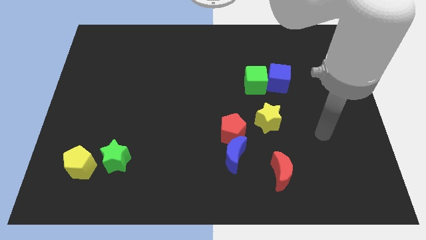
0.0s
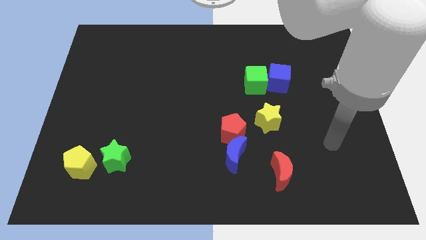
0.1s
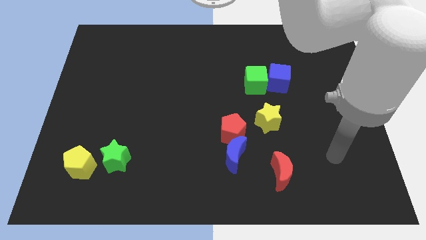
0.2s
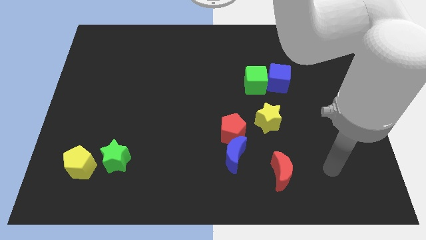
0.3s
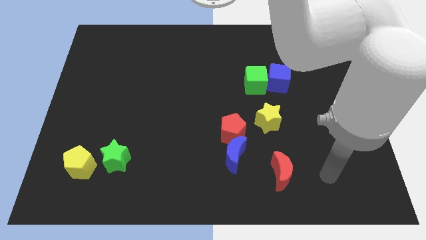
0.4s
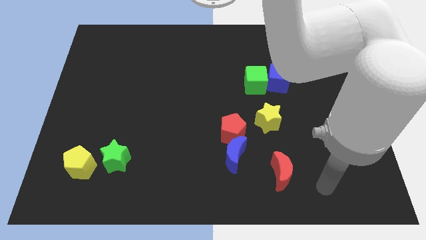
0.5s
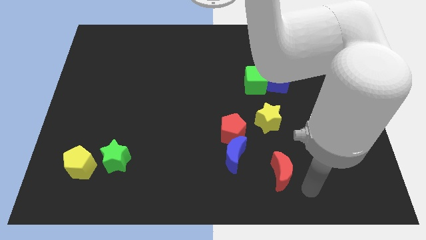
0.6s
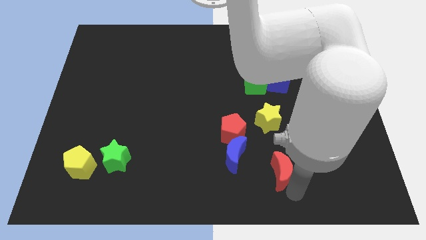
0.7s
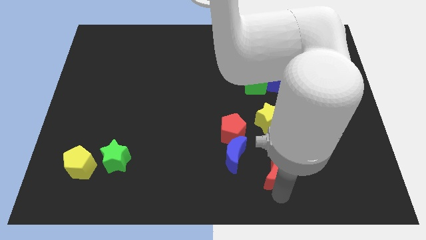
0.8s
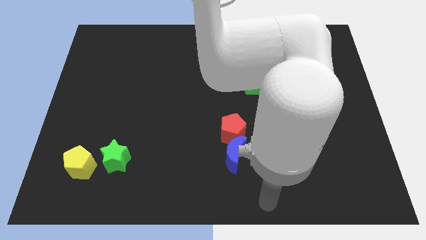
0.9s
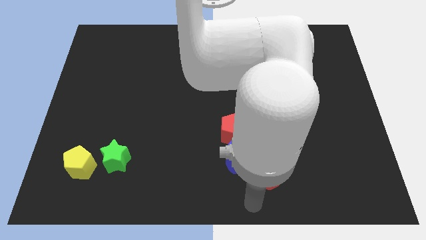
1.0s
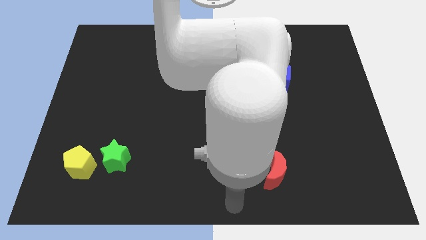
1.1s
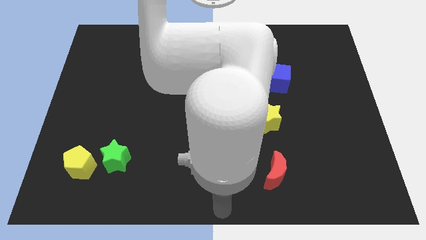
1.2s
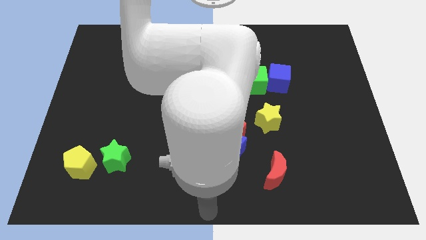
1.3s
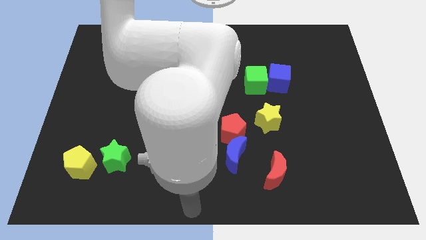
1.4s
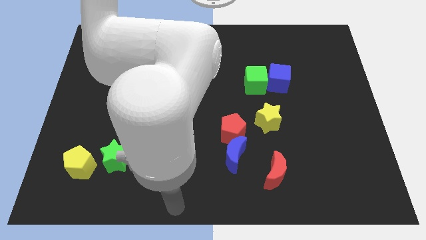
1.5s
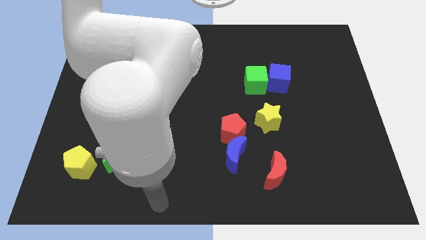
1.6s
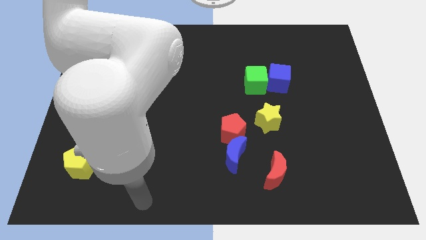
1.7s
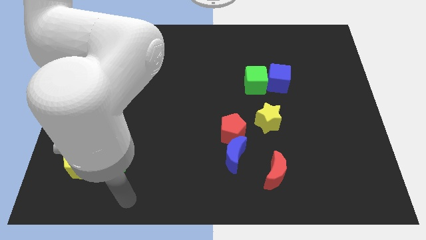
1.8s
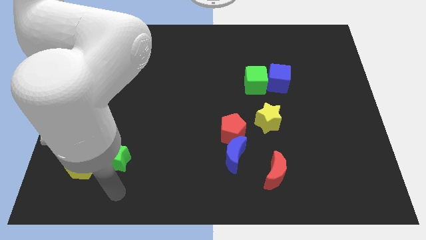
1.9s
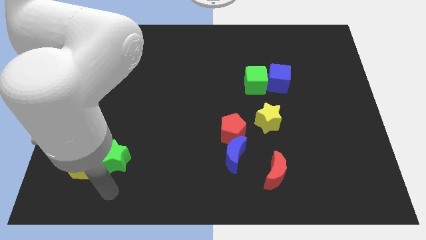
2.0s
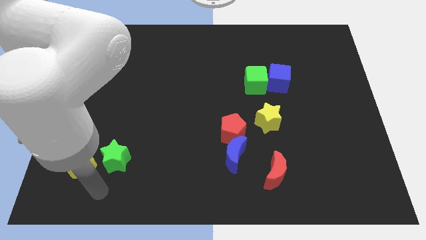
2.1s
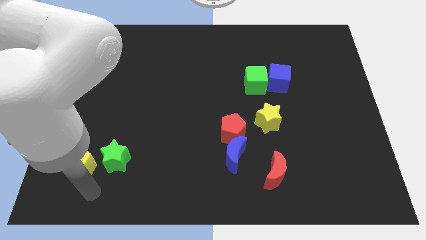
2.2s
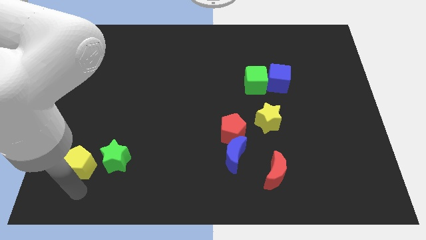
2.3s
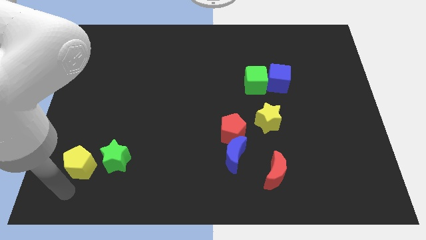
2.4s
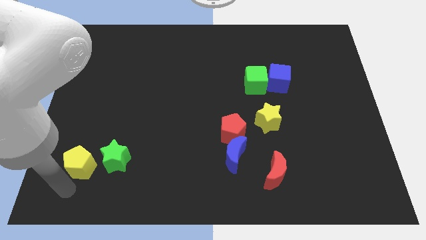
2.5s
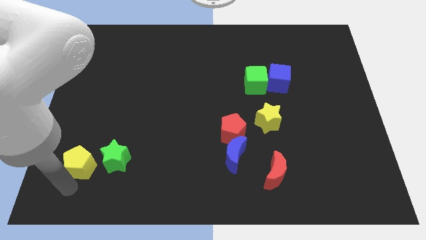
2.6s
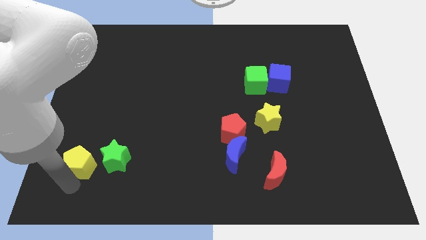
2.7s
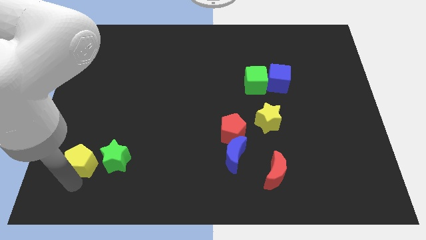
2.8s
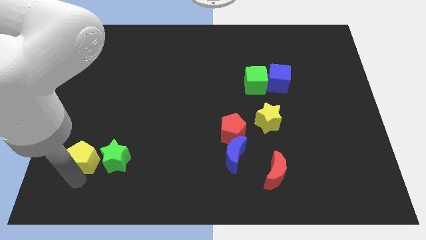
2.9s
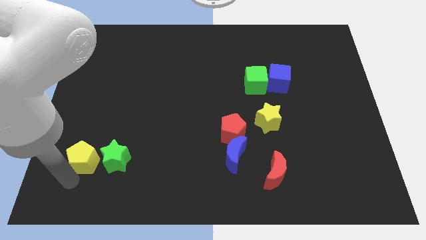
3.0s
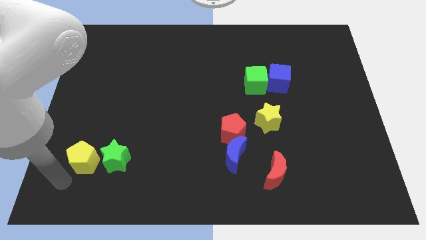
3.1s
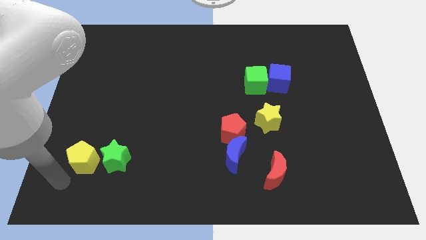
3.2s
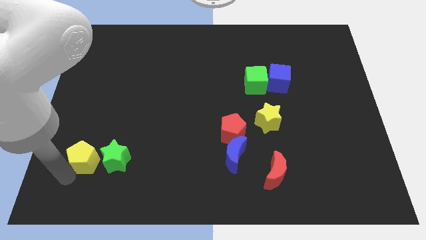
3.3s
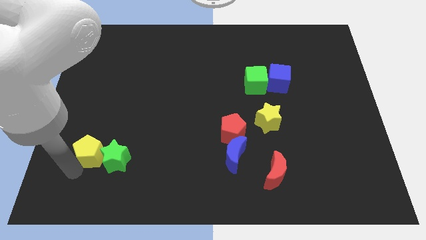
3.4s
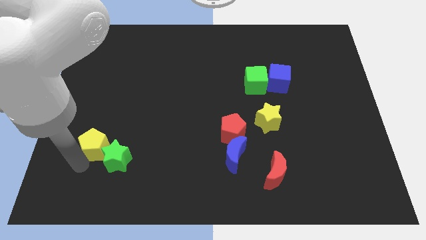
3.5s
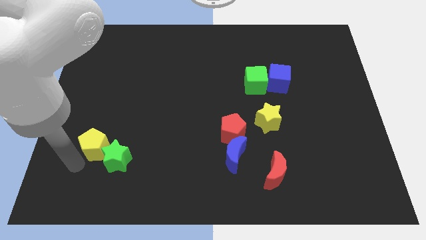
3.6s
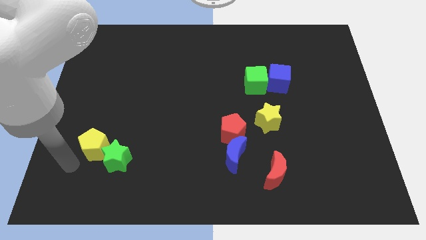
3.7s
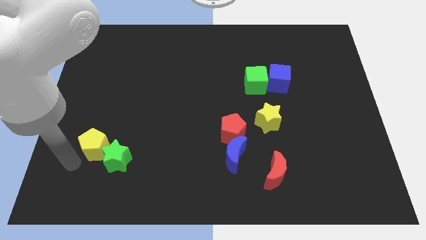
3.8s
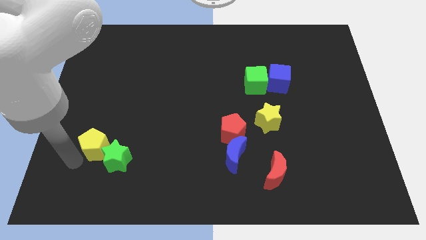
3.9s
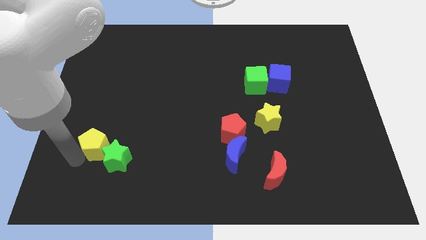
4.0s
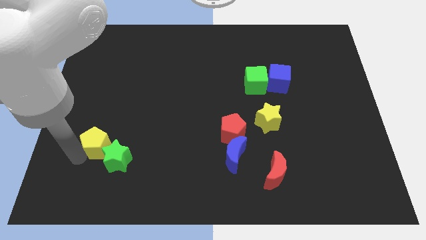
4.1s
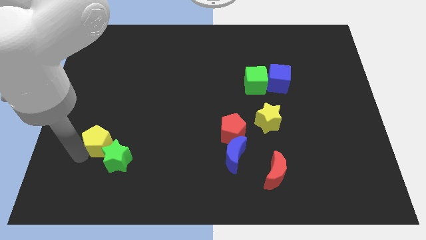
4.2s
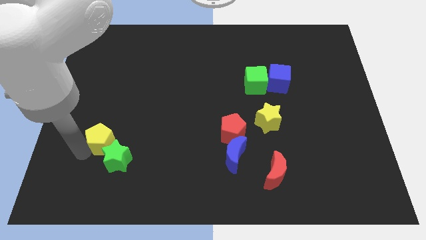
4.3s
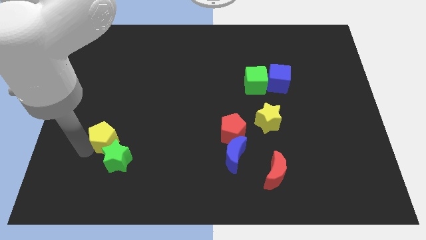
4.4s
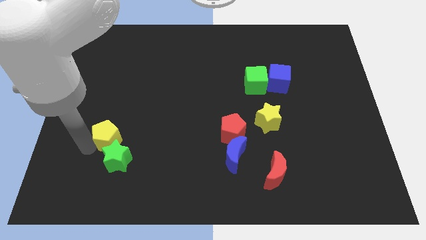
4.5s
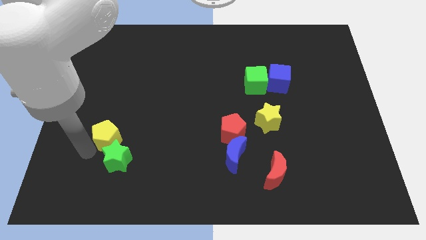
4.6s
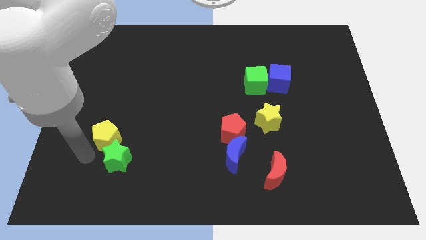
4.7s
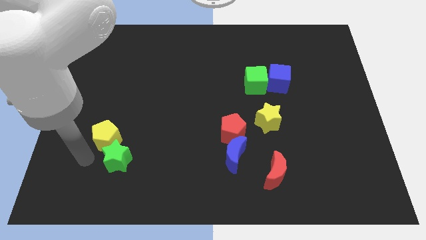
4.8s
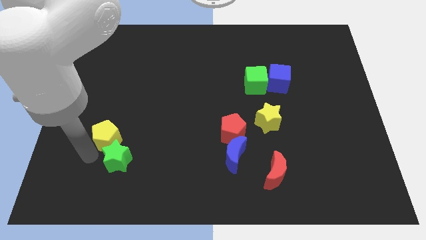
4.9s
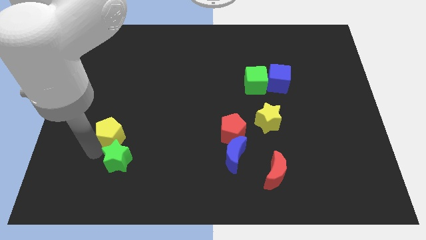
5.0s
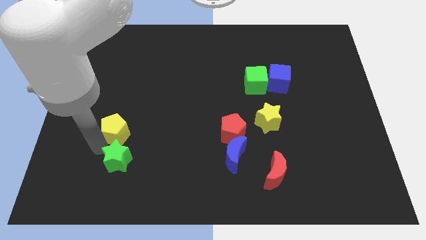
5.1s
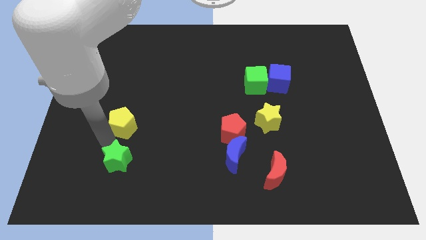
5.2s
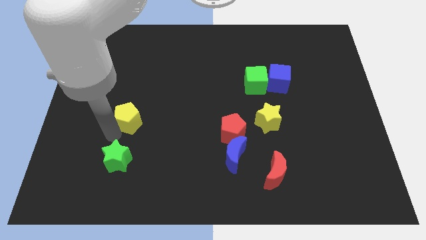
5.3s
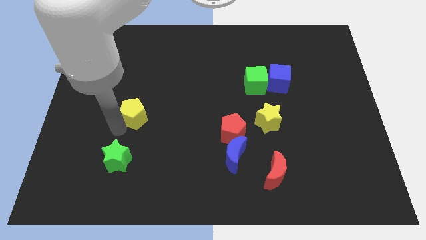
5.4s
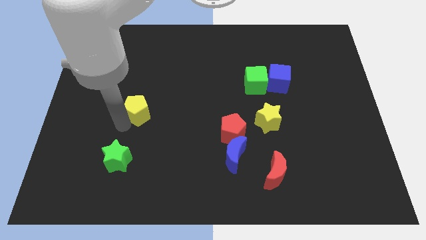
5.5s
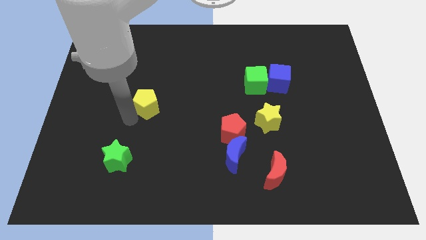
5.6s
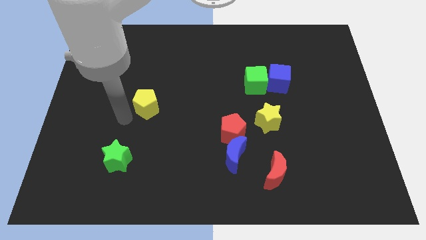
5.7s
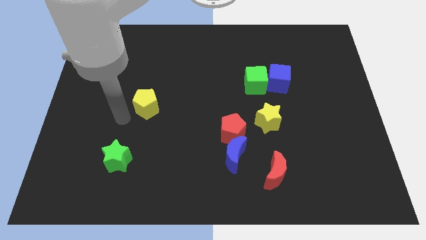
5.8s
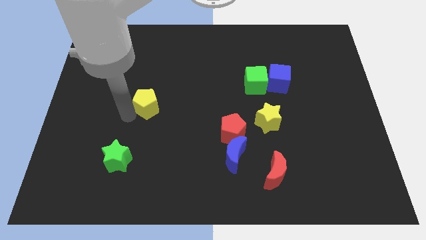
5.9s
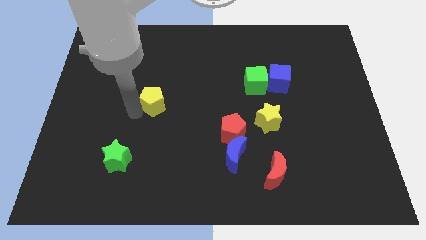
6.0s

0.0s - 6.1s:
move the yellow pentagon up and to the right

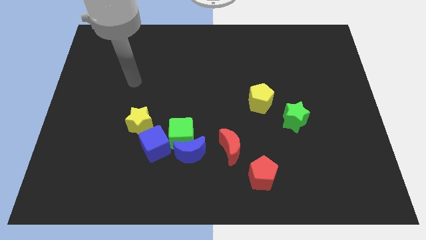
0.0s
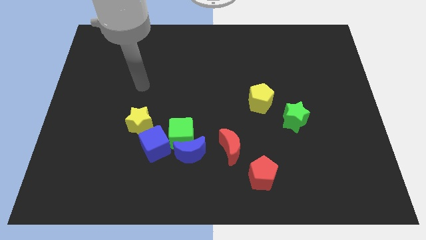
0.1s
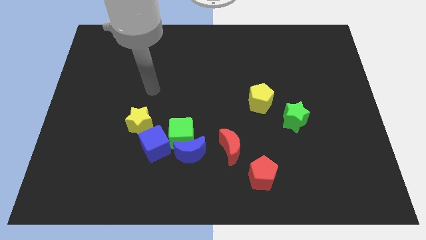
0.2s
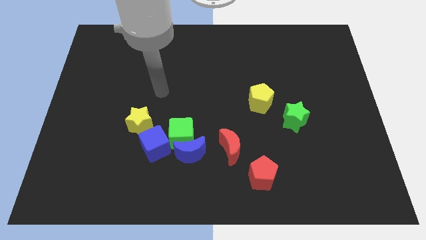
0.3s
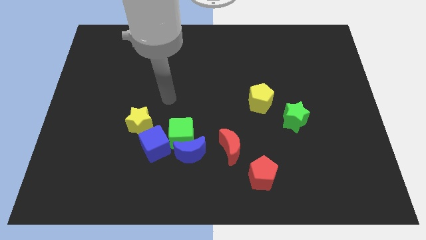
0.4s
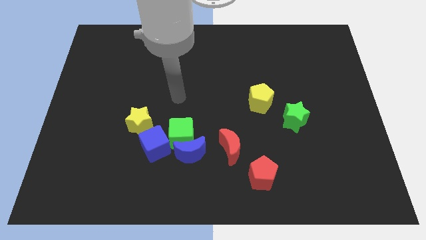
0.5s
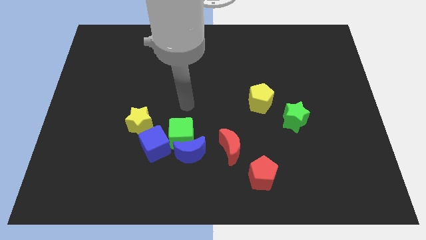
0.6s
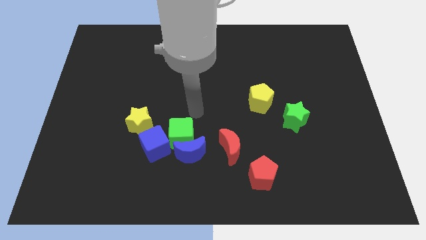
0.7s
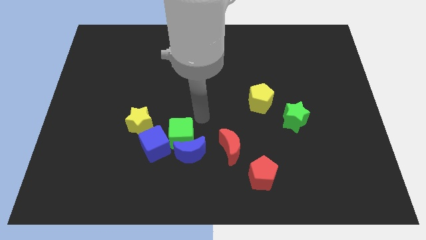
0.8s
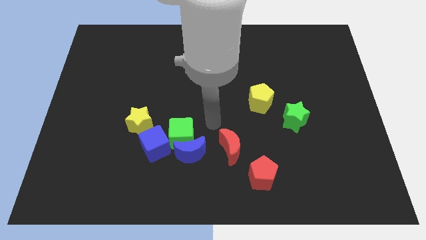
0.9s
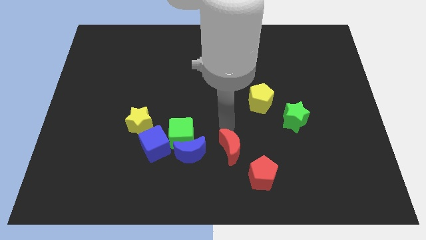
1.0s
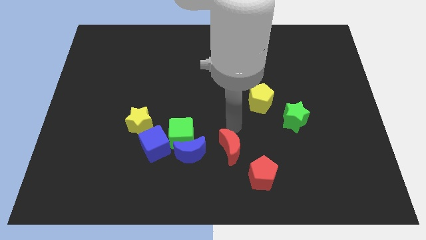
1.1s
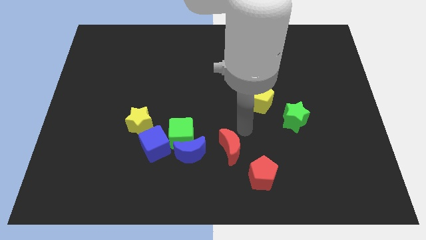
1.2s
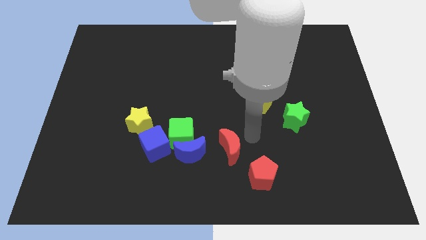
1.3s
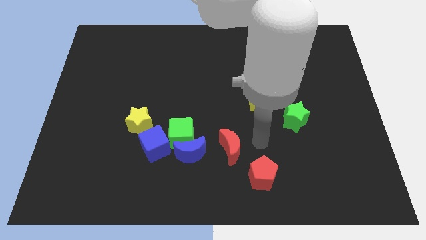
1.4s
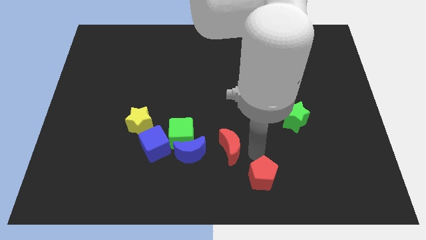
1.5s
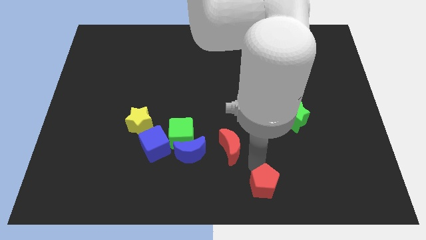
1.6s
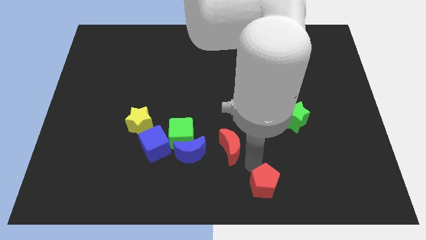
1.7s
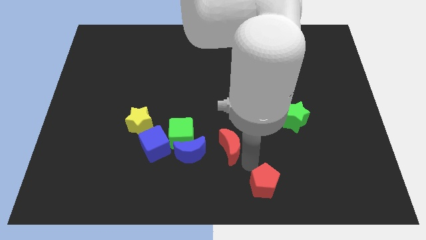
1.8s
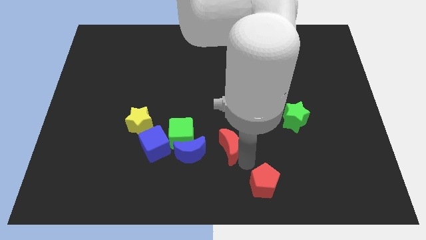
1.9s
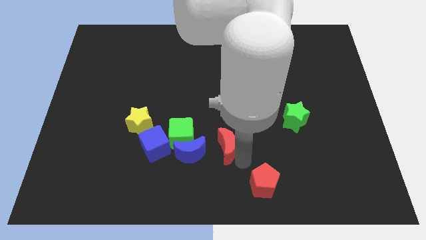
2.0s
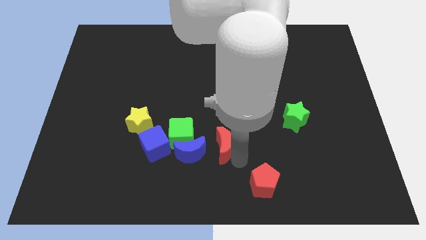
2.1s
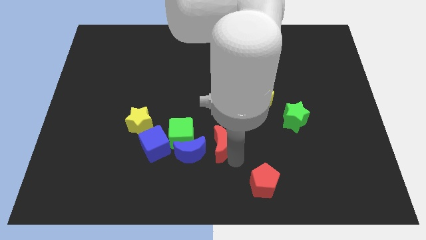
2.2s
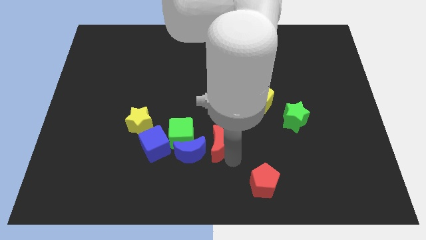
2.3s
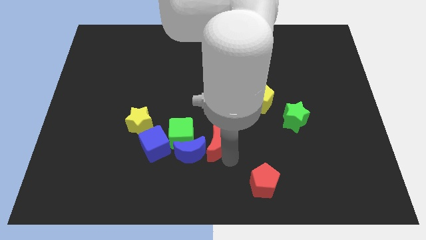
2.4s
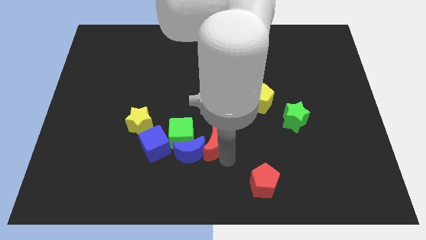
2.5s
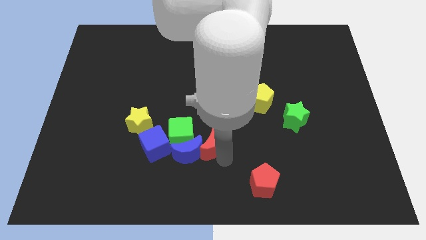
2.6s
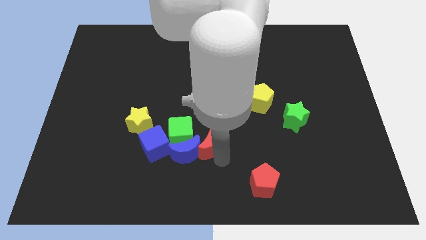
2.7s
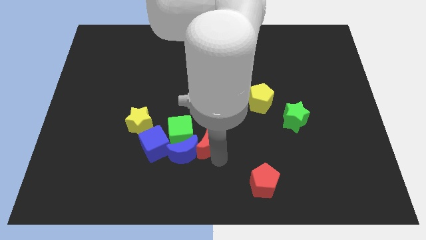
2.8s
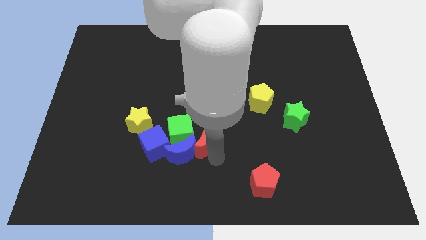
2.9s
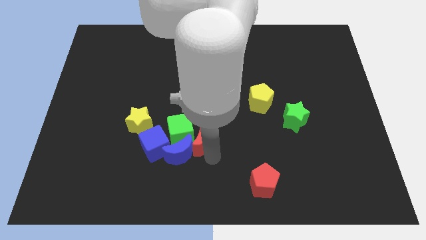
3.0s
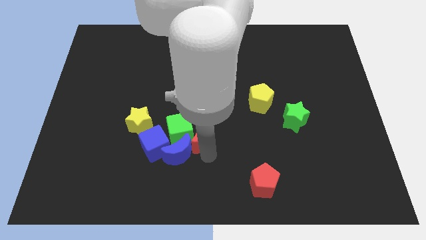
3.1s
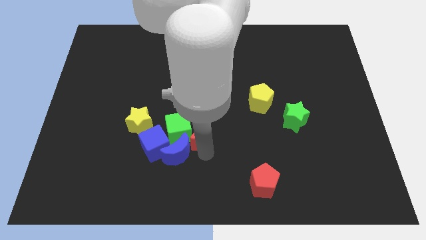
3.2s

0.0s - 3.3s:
push the red moon up and left diagonally a little
